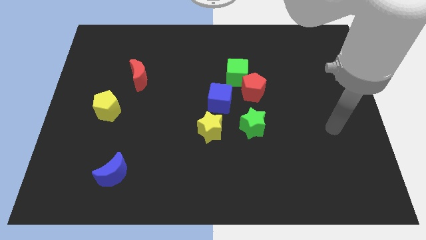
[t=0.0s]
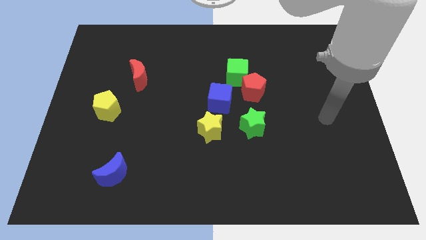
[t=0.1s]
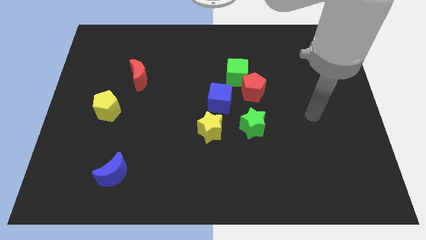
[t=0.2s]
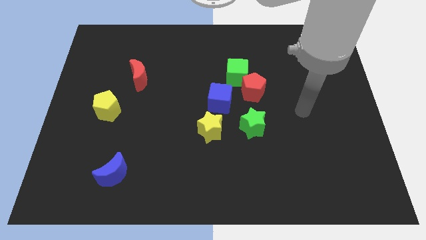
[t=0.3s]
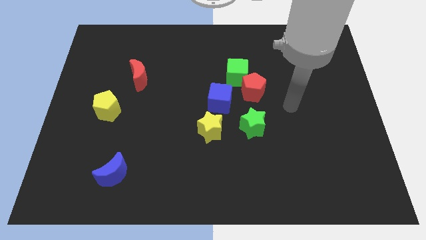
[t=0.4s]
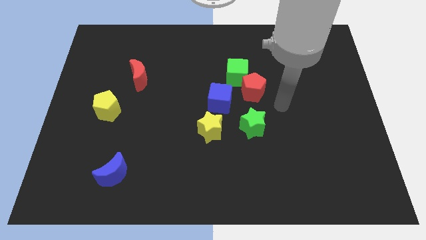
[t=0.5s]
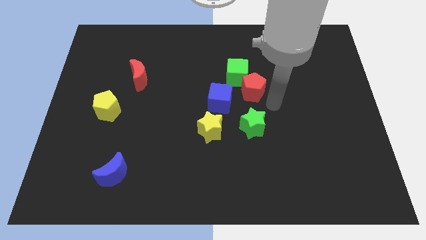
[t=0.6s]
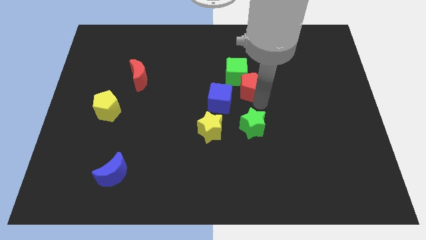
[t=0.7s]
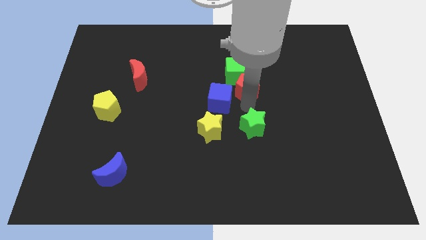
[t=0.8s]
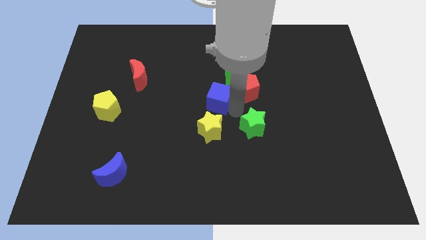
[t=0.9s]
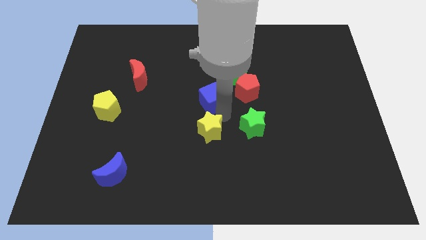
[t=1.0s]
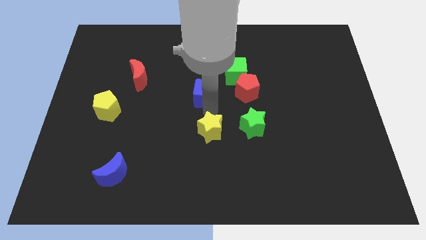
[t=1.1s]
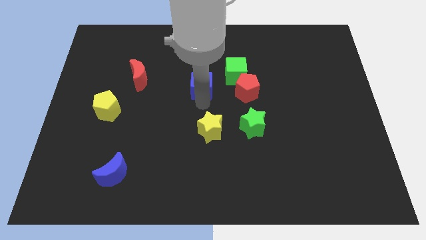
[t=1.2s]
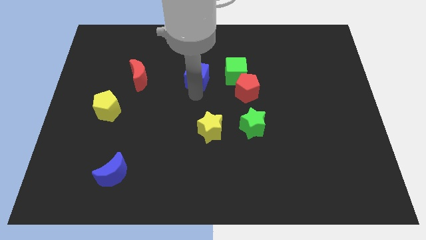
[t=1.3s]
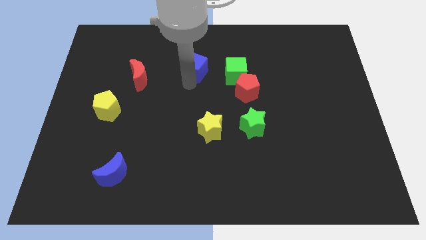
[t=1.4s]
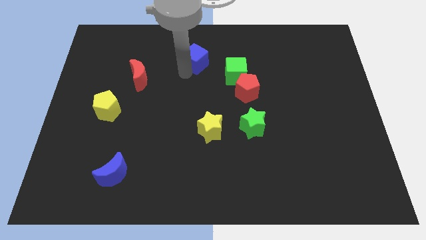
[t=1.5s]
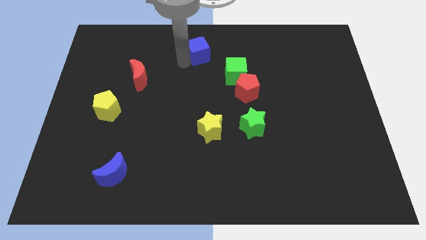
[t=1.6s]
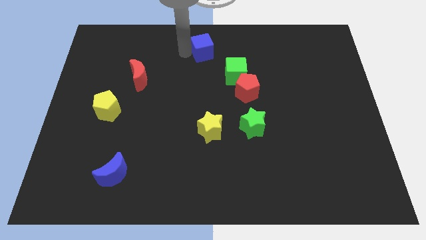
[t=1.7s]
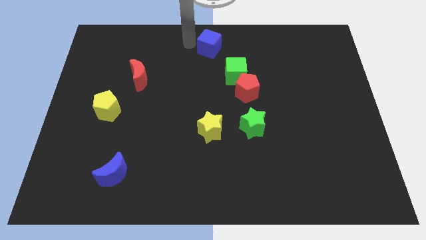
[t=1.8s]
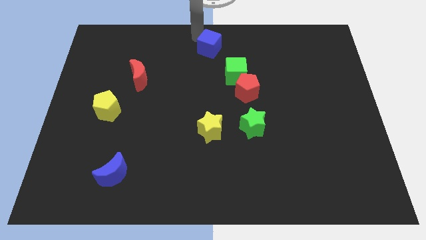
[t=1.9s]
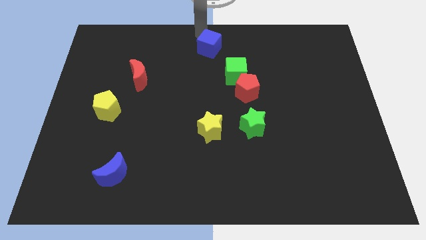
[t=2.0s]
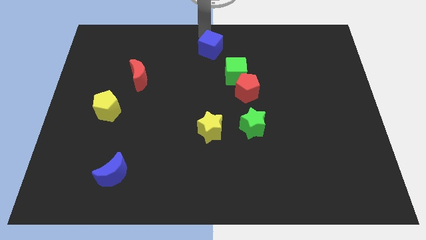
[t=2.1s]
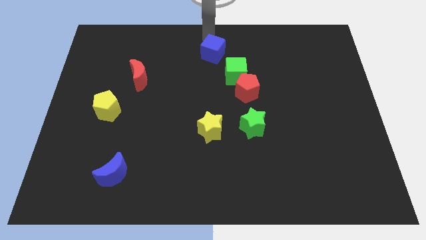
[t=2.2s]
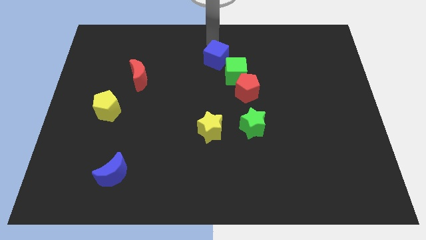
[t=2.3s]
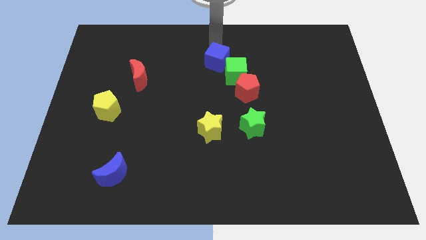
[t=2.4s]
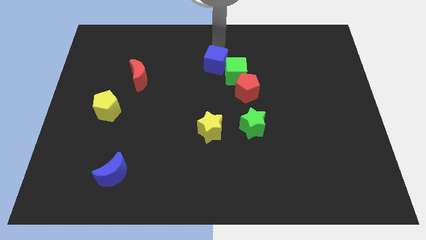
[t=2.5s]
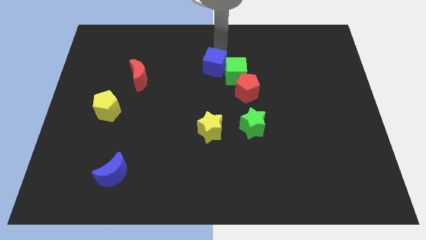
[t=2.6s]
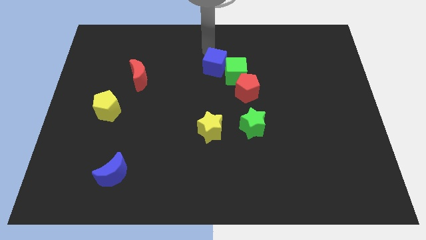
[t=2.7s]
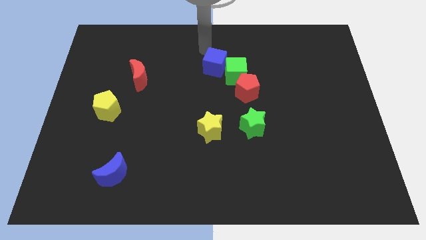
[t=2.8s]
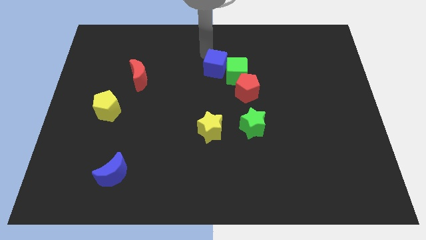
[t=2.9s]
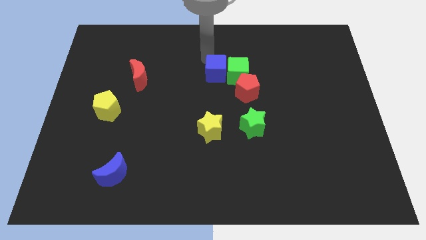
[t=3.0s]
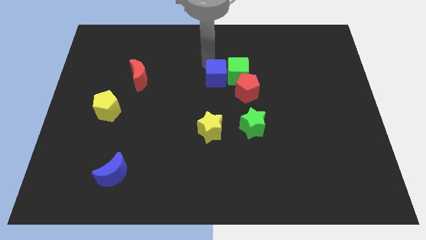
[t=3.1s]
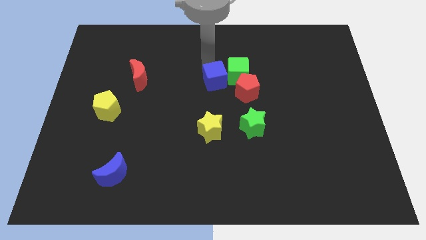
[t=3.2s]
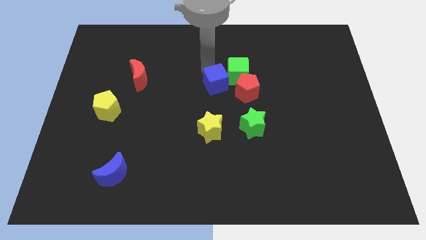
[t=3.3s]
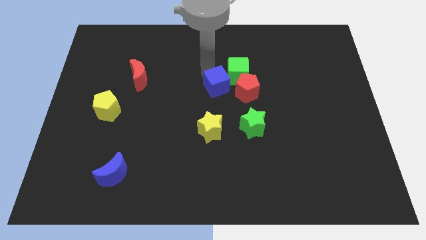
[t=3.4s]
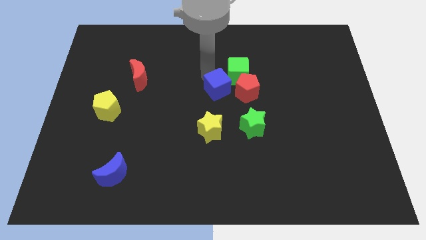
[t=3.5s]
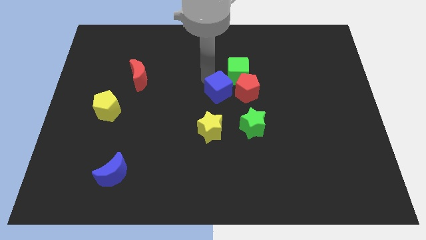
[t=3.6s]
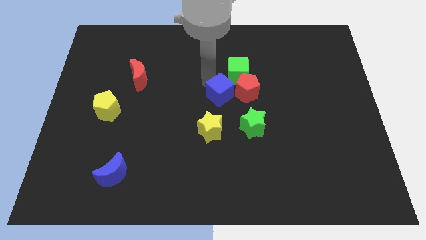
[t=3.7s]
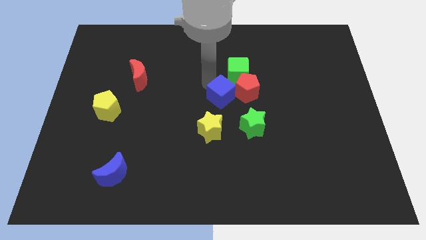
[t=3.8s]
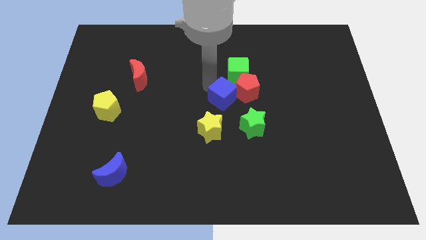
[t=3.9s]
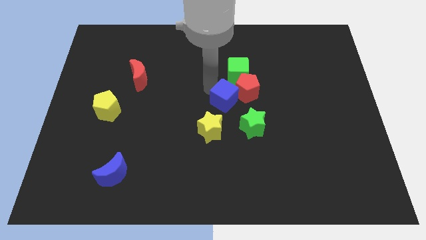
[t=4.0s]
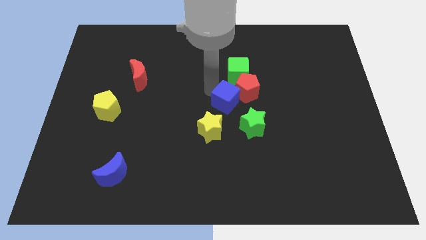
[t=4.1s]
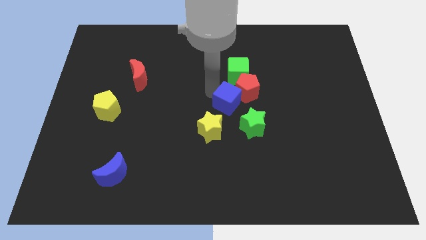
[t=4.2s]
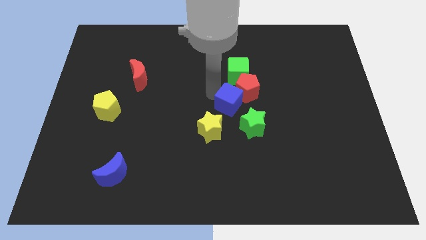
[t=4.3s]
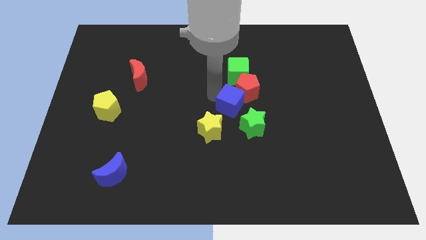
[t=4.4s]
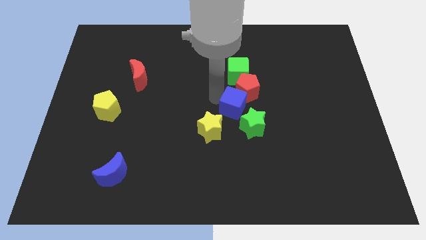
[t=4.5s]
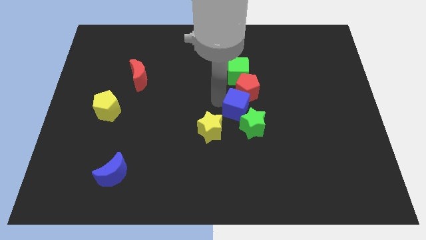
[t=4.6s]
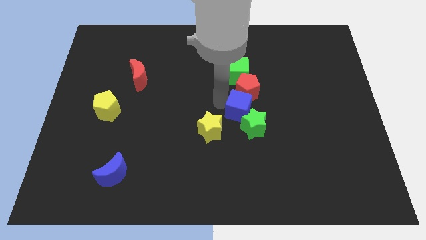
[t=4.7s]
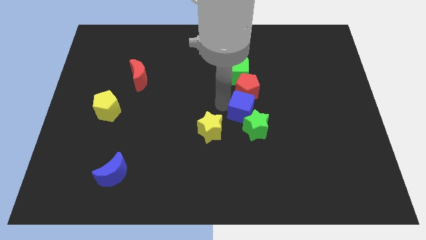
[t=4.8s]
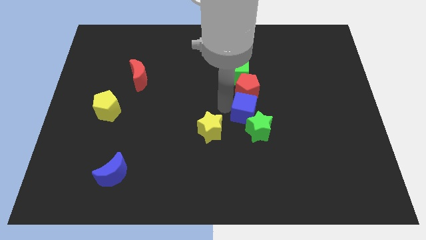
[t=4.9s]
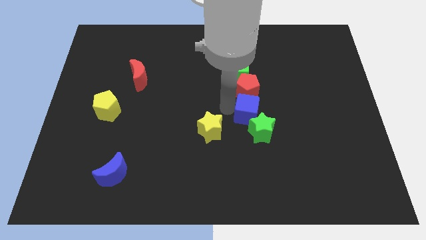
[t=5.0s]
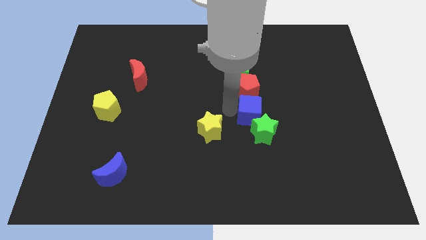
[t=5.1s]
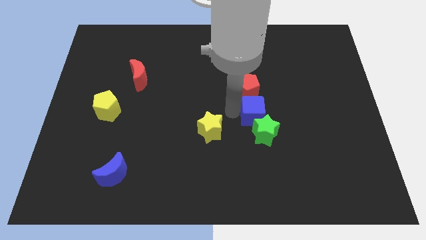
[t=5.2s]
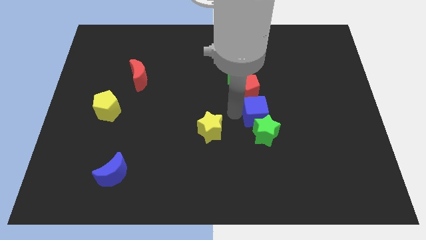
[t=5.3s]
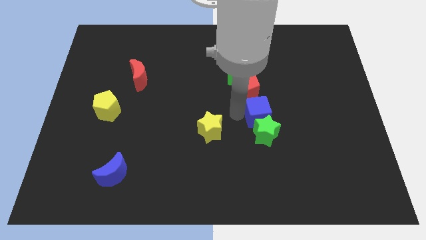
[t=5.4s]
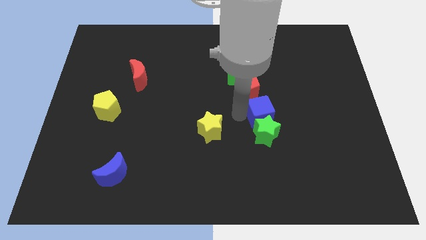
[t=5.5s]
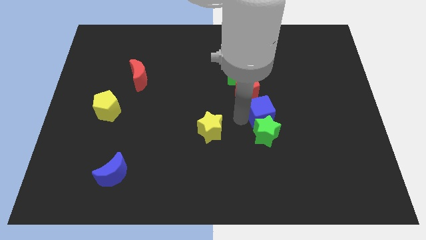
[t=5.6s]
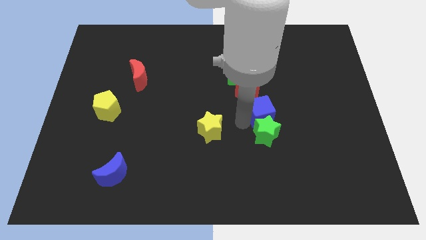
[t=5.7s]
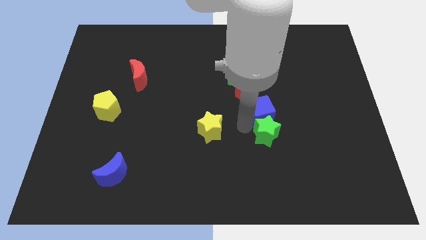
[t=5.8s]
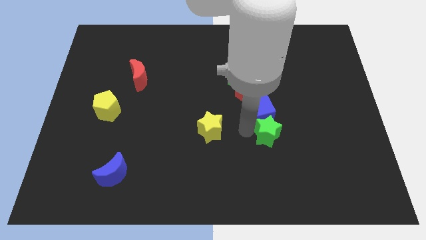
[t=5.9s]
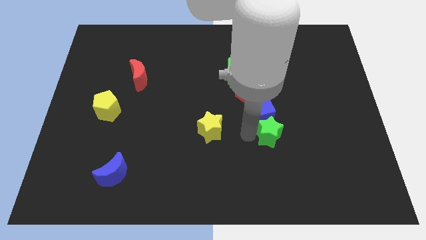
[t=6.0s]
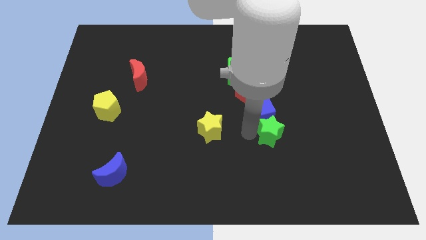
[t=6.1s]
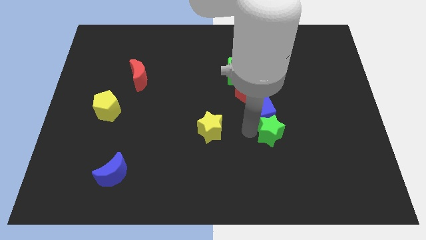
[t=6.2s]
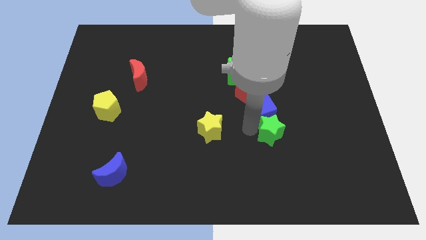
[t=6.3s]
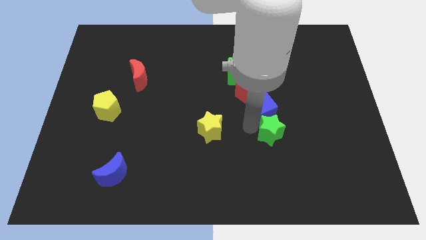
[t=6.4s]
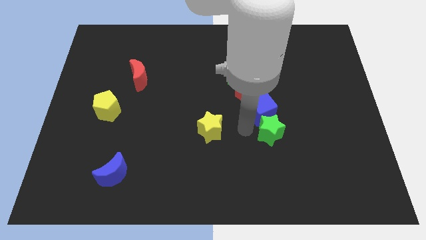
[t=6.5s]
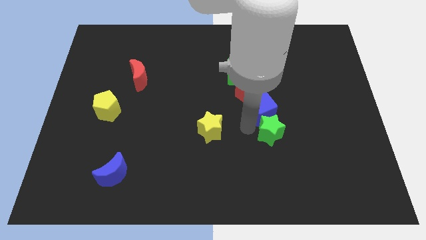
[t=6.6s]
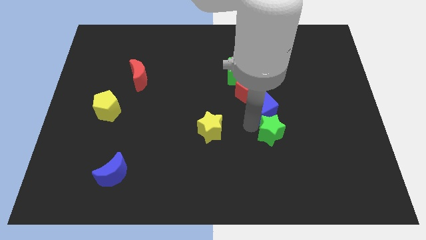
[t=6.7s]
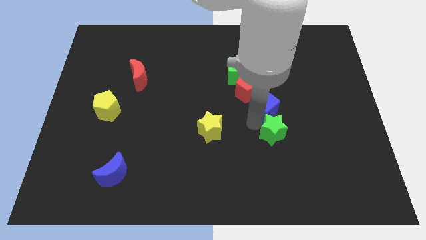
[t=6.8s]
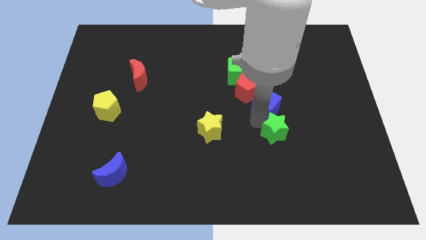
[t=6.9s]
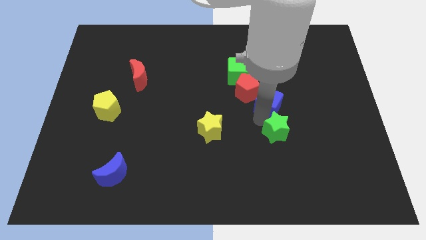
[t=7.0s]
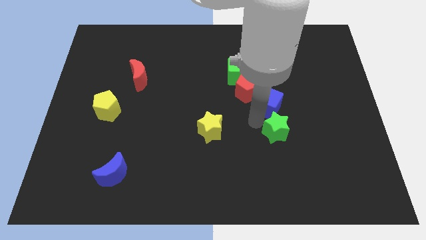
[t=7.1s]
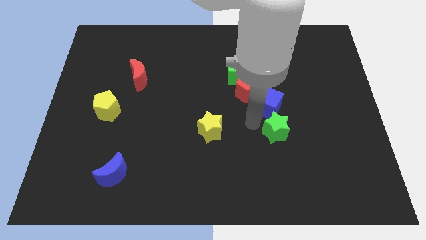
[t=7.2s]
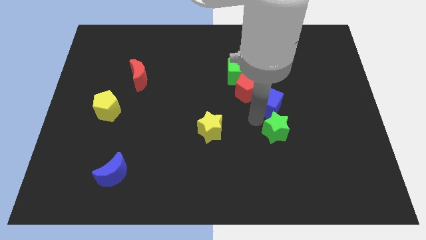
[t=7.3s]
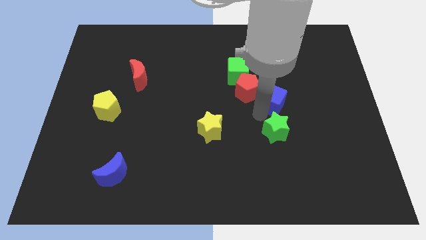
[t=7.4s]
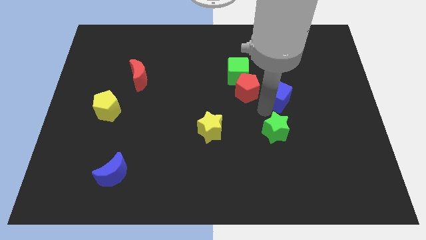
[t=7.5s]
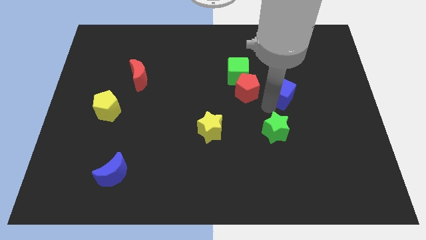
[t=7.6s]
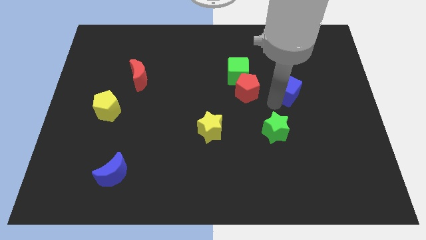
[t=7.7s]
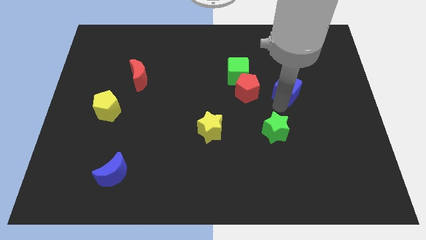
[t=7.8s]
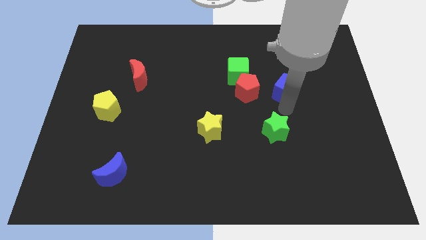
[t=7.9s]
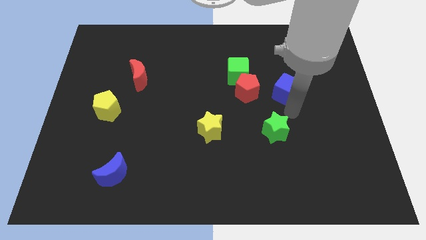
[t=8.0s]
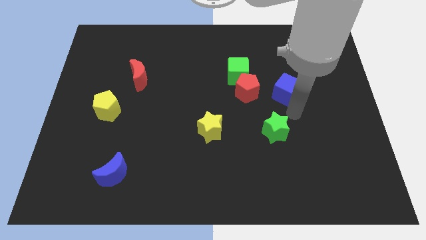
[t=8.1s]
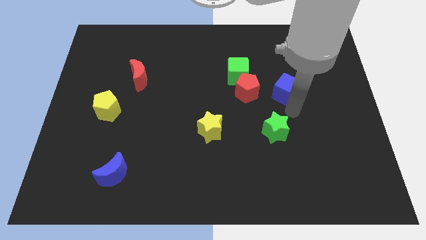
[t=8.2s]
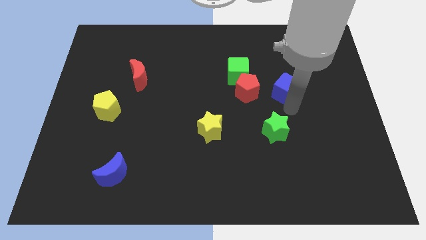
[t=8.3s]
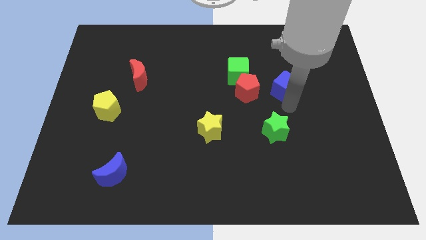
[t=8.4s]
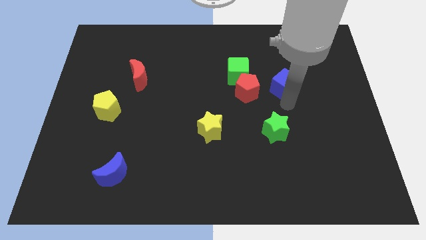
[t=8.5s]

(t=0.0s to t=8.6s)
put the blue cube to the right of the green cube
